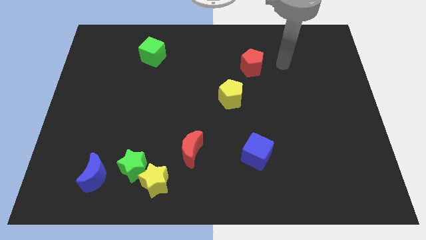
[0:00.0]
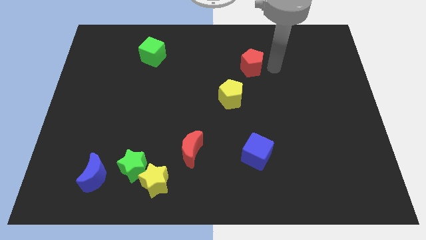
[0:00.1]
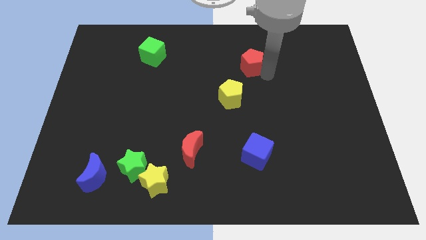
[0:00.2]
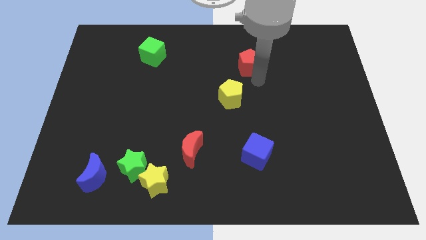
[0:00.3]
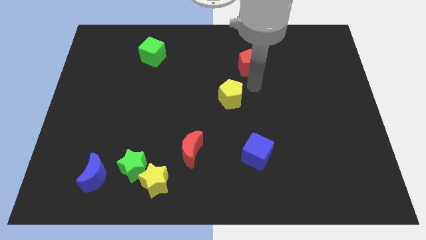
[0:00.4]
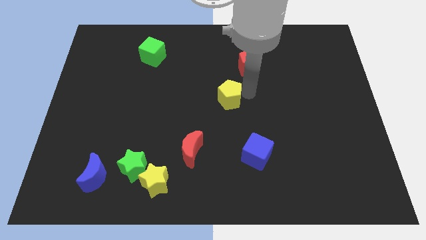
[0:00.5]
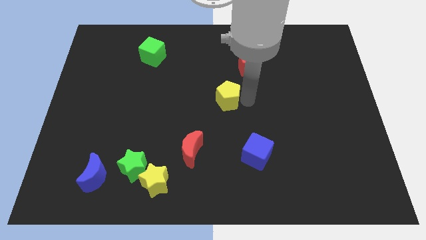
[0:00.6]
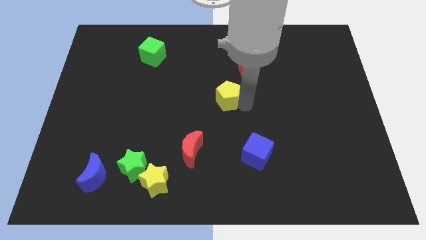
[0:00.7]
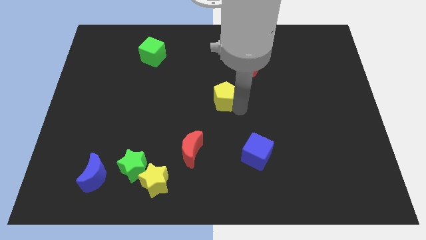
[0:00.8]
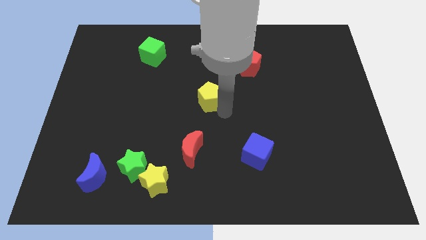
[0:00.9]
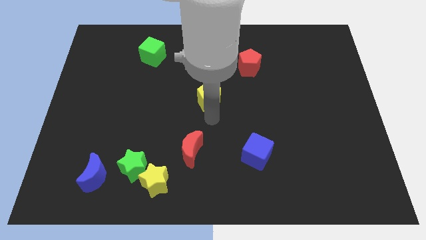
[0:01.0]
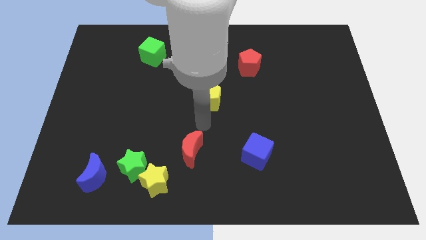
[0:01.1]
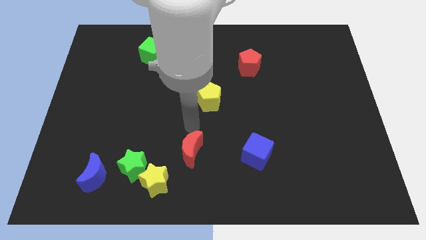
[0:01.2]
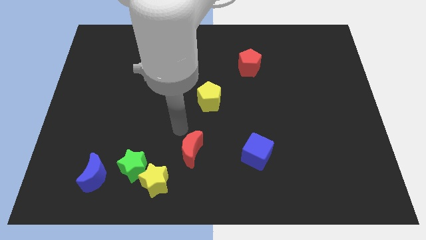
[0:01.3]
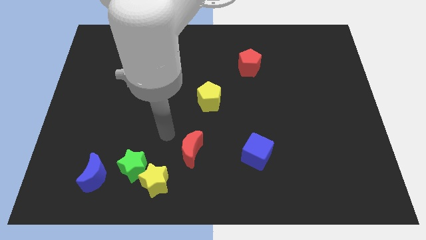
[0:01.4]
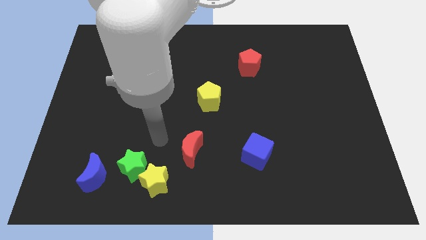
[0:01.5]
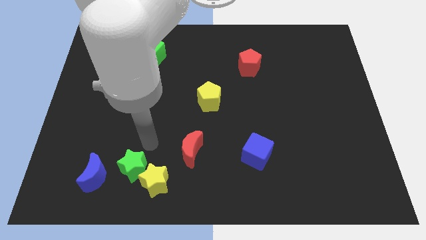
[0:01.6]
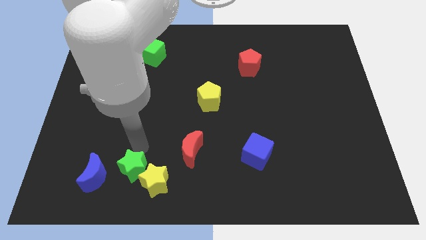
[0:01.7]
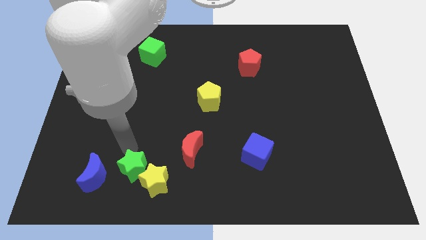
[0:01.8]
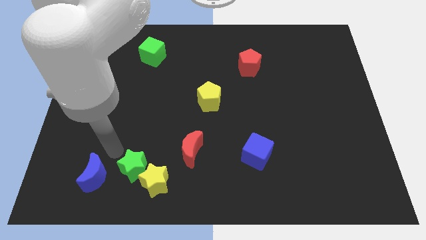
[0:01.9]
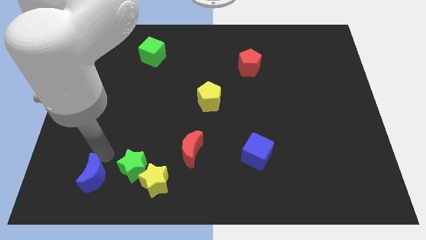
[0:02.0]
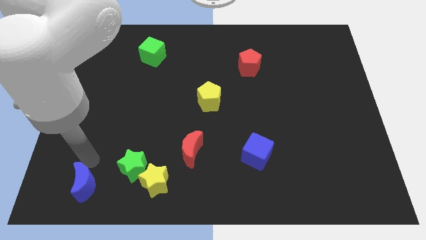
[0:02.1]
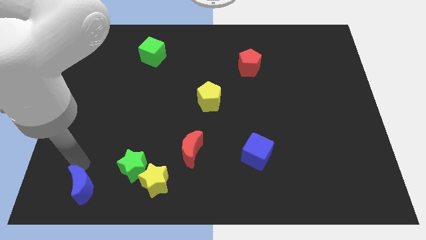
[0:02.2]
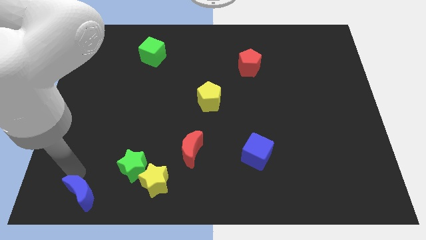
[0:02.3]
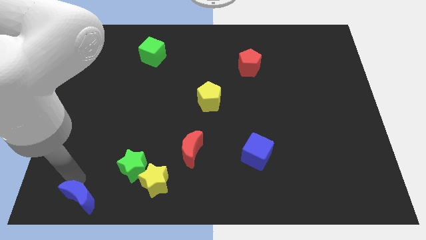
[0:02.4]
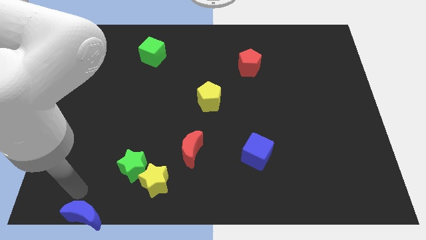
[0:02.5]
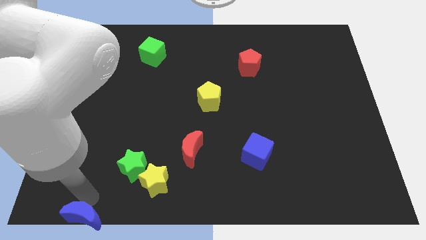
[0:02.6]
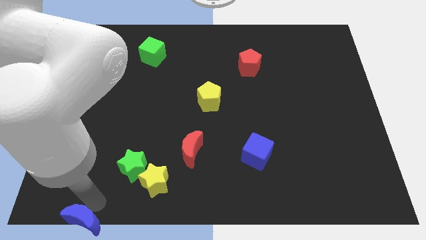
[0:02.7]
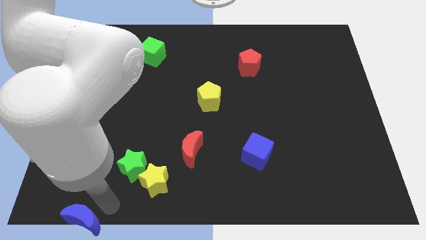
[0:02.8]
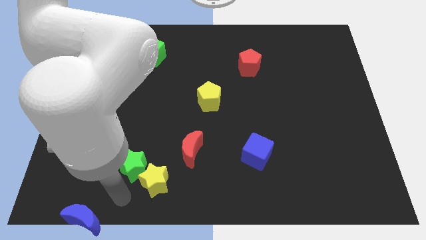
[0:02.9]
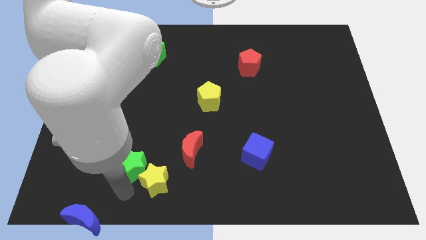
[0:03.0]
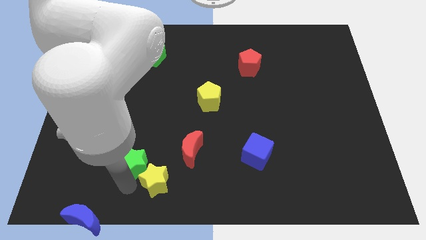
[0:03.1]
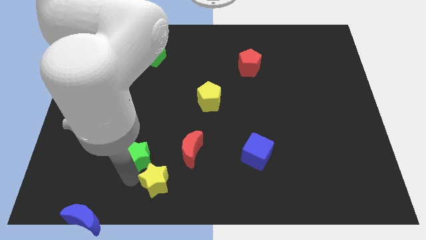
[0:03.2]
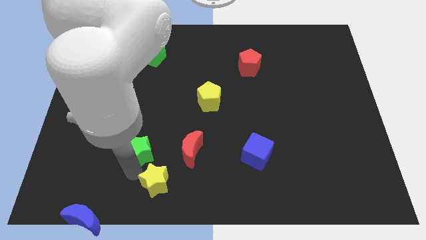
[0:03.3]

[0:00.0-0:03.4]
pull the green star apart from the yellow star and blue moon

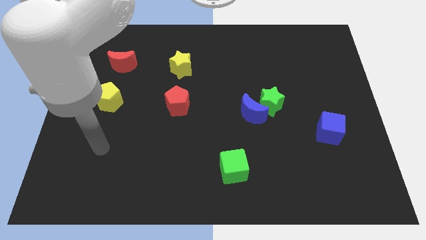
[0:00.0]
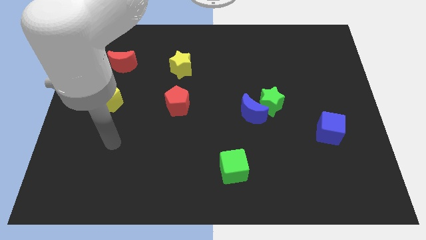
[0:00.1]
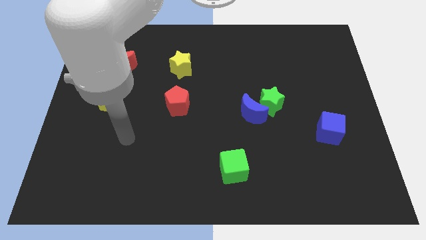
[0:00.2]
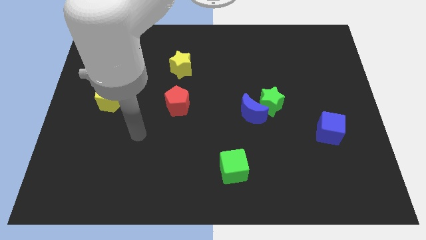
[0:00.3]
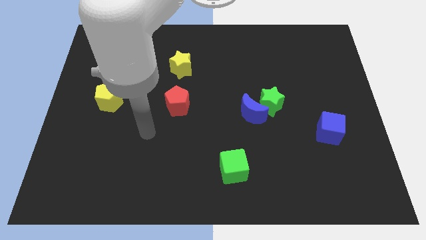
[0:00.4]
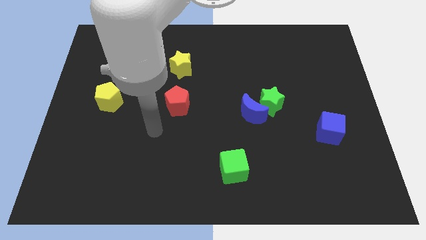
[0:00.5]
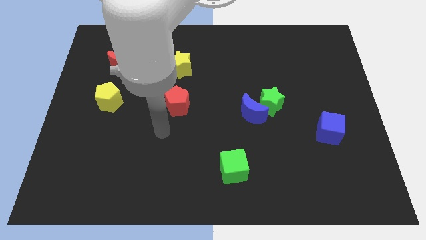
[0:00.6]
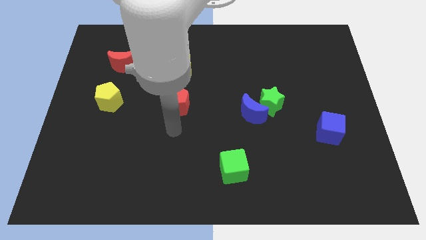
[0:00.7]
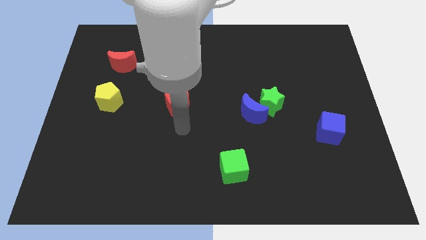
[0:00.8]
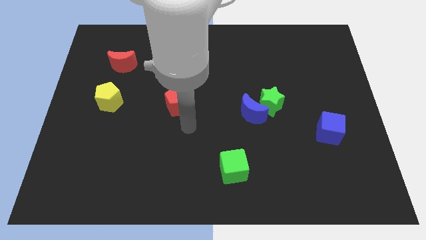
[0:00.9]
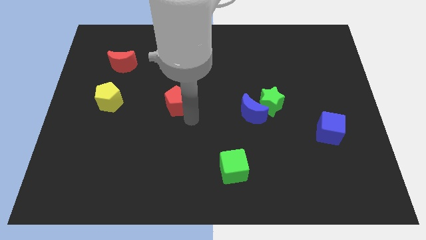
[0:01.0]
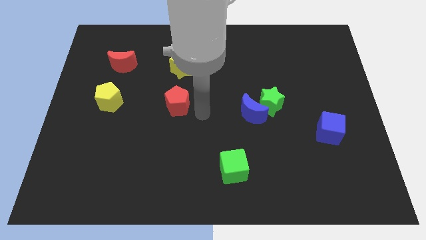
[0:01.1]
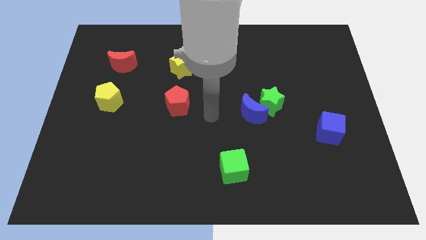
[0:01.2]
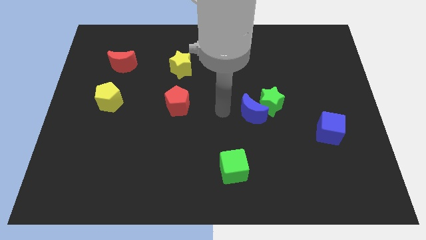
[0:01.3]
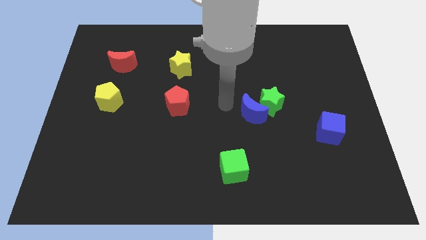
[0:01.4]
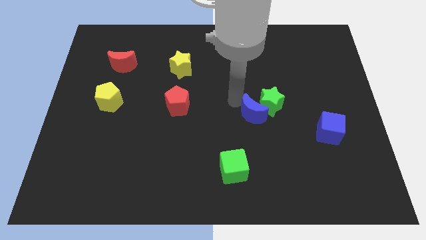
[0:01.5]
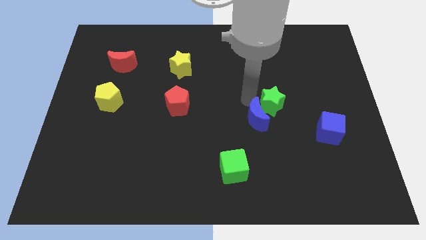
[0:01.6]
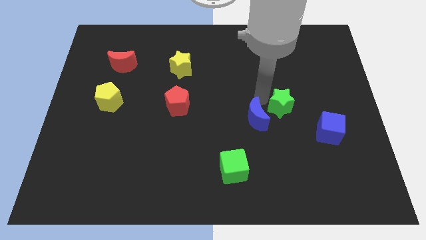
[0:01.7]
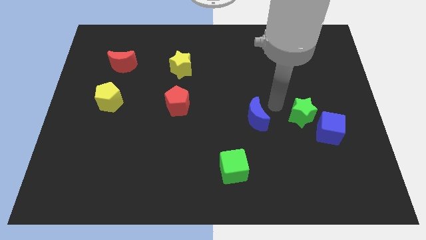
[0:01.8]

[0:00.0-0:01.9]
separate the blue moon from the green star

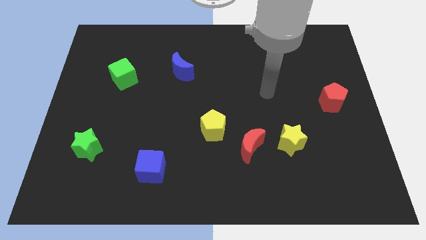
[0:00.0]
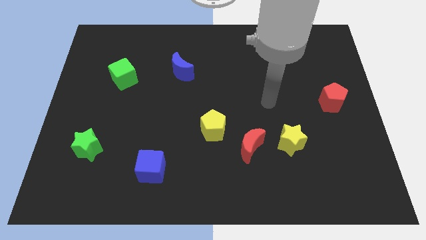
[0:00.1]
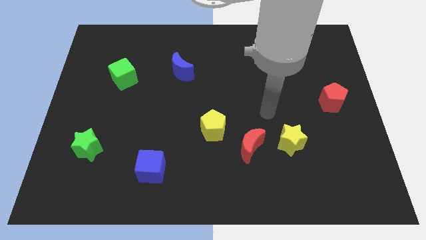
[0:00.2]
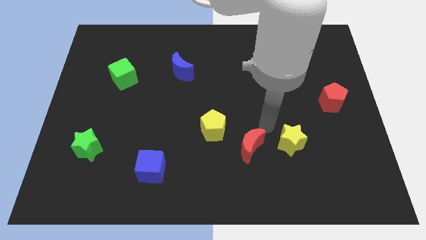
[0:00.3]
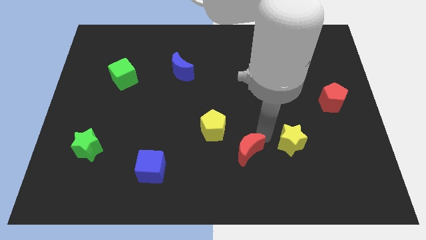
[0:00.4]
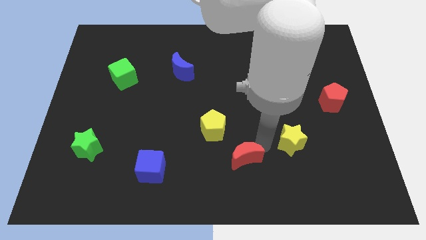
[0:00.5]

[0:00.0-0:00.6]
move the yellow star away from the red moon

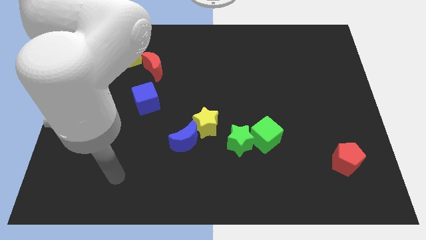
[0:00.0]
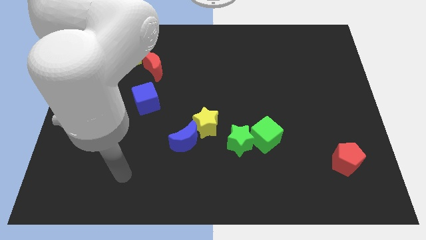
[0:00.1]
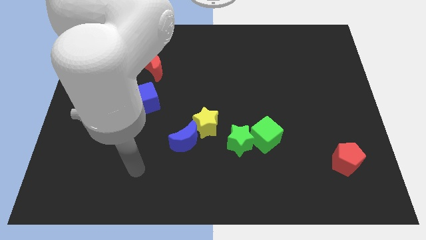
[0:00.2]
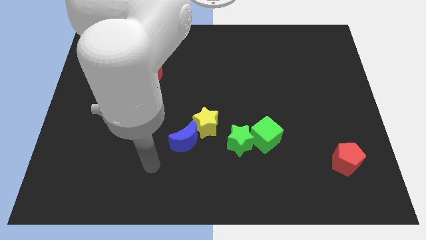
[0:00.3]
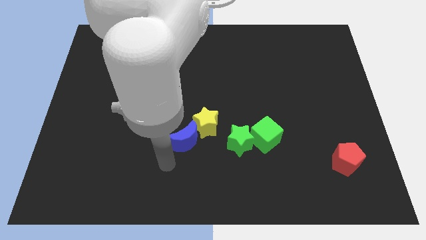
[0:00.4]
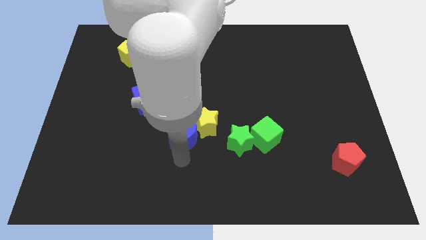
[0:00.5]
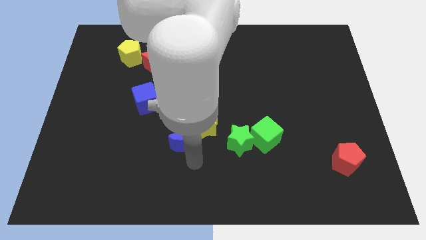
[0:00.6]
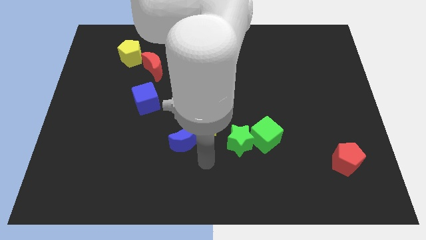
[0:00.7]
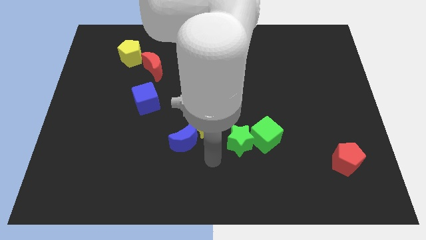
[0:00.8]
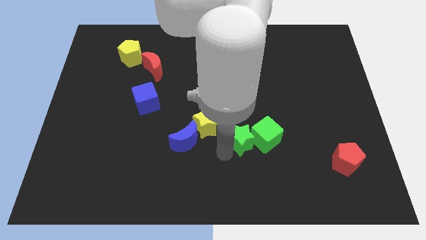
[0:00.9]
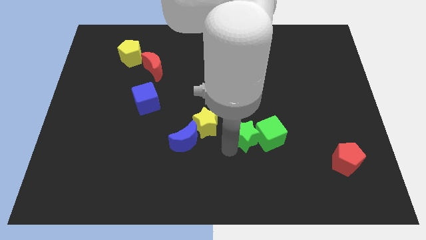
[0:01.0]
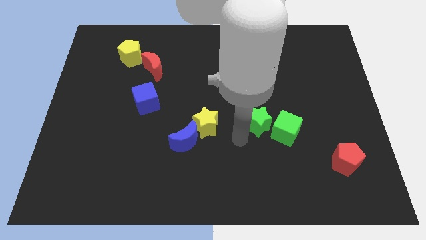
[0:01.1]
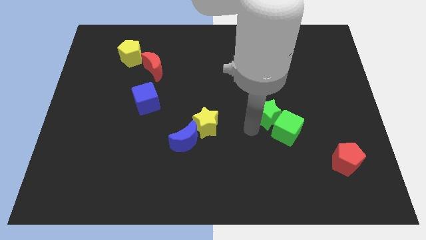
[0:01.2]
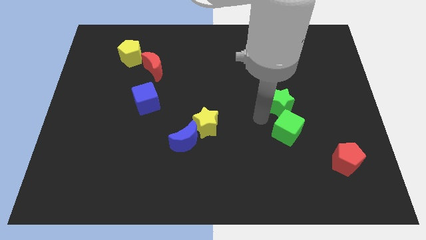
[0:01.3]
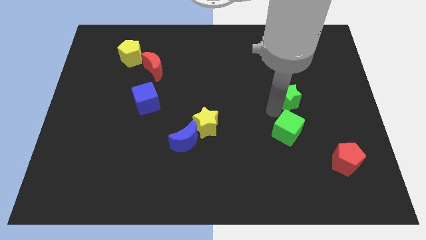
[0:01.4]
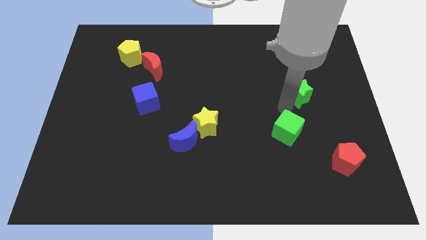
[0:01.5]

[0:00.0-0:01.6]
pull the green cube apart from the green star

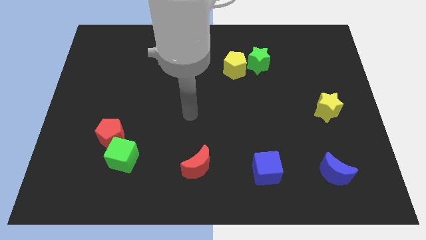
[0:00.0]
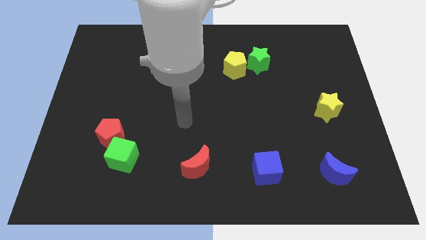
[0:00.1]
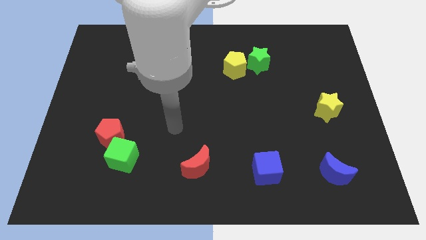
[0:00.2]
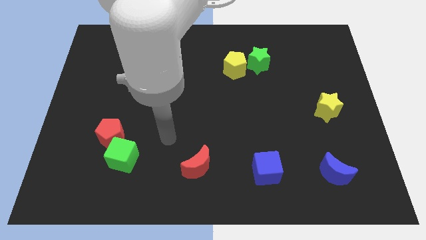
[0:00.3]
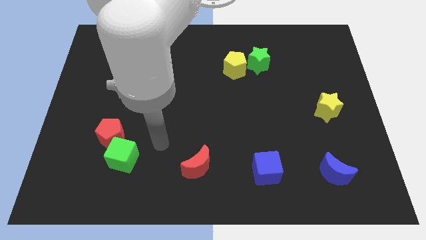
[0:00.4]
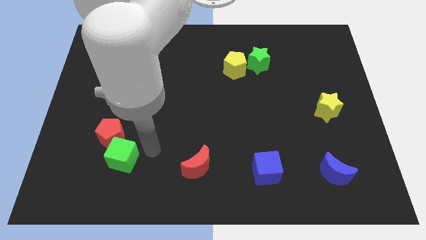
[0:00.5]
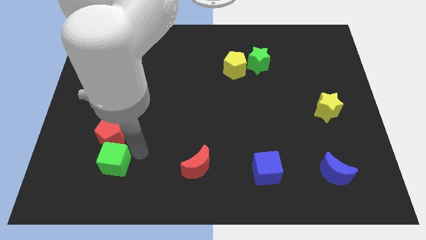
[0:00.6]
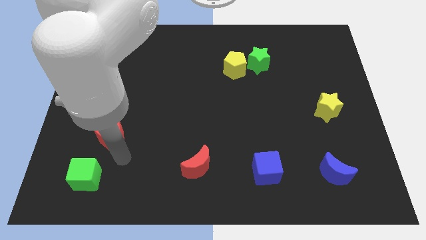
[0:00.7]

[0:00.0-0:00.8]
separate the red pentagon from the green cube

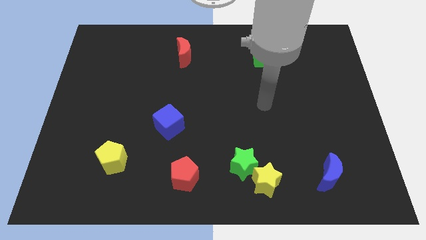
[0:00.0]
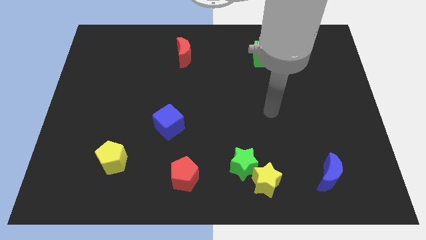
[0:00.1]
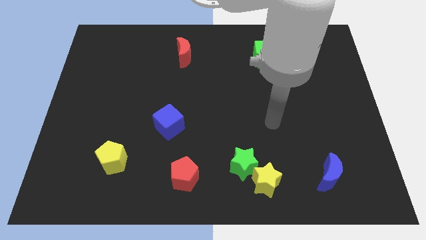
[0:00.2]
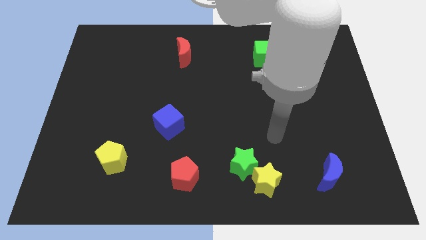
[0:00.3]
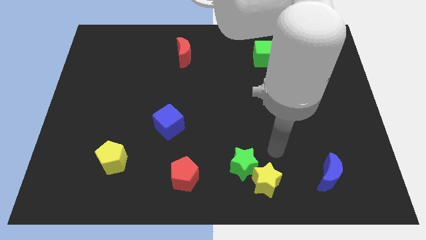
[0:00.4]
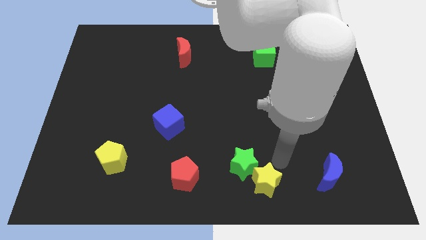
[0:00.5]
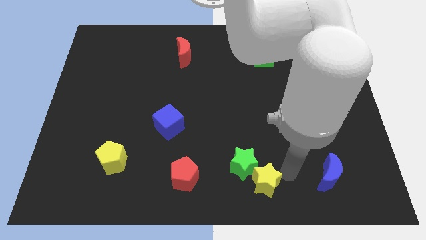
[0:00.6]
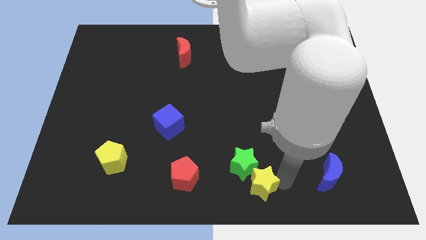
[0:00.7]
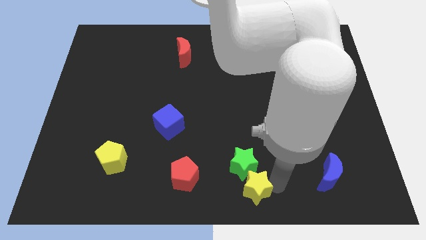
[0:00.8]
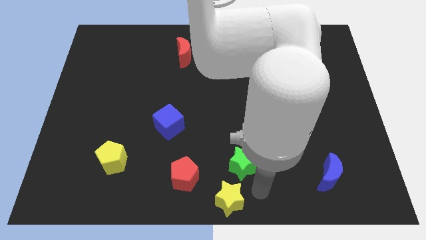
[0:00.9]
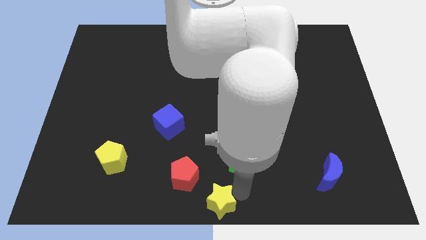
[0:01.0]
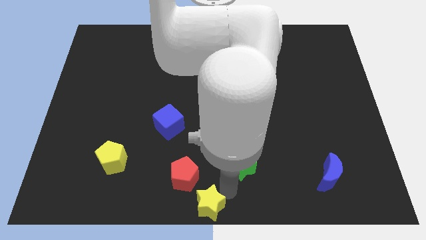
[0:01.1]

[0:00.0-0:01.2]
pull the green star apart from the yellow star
